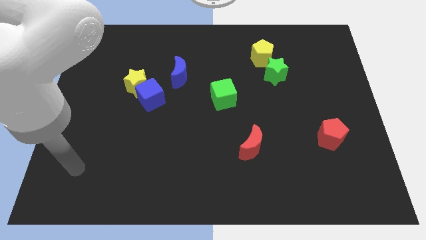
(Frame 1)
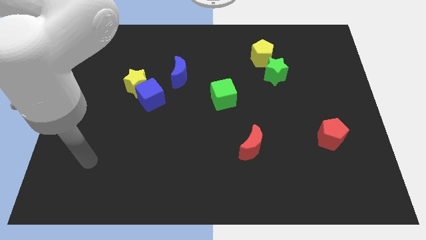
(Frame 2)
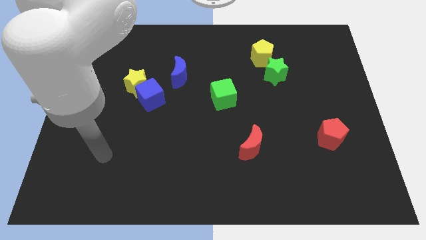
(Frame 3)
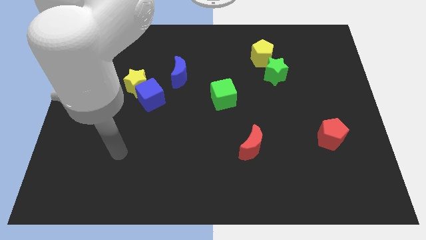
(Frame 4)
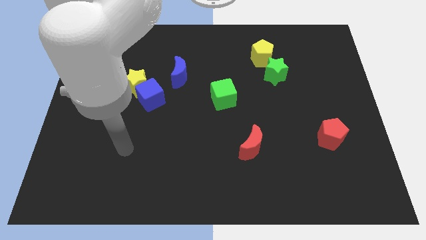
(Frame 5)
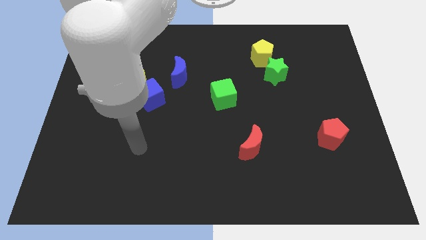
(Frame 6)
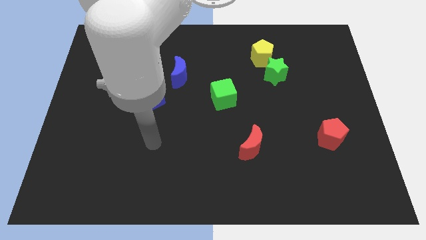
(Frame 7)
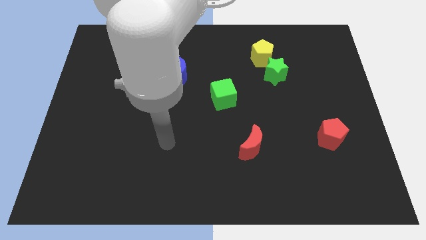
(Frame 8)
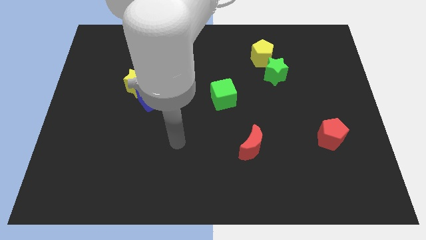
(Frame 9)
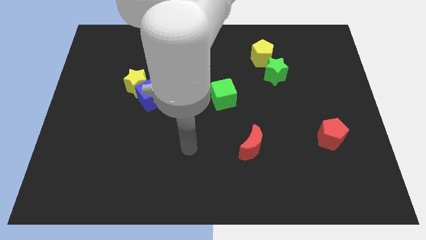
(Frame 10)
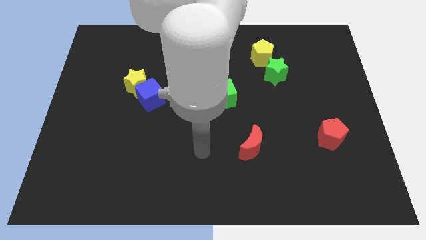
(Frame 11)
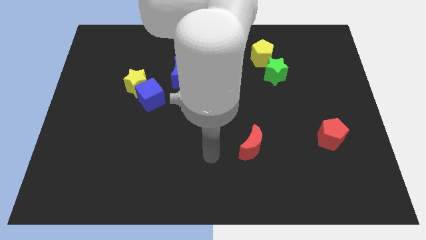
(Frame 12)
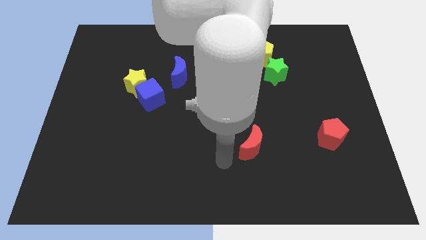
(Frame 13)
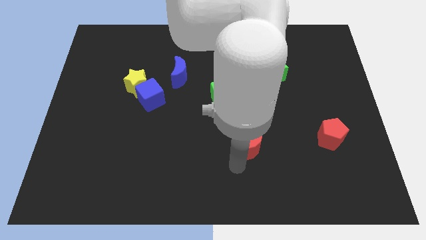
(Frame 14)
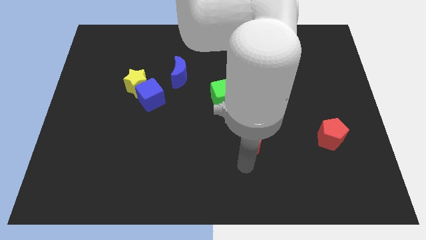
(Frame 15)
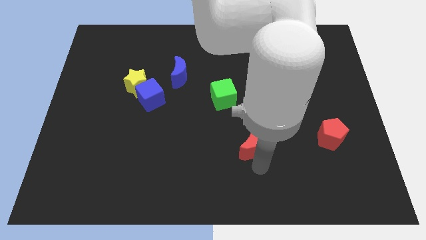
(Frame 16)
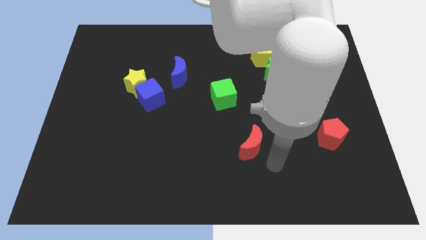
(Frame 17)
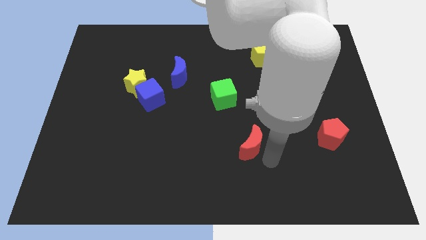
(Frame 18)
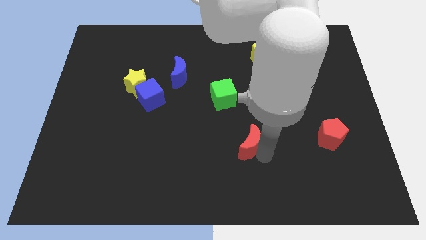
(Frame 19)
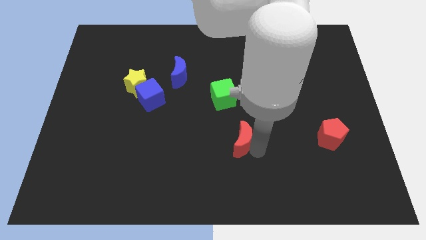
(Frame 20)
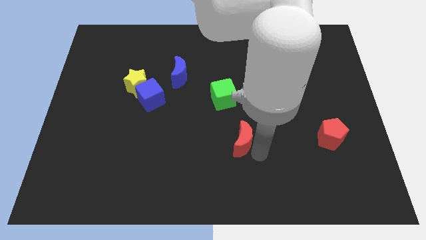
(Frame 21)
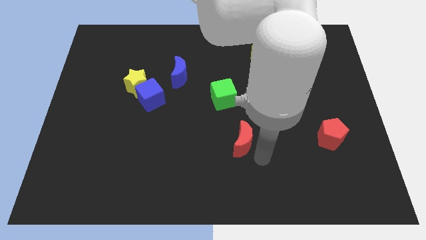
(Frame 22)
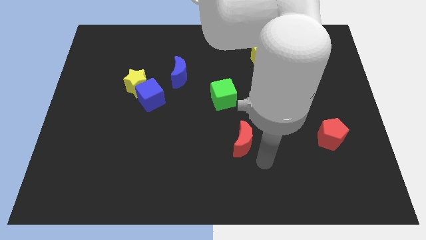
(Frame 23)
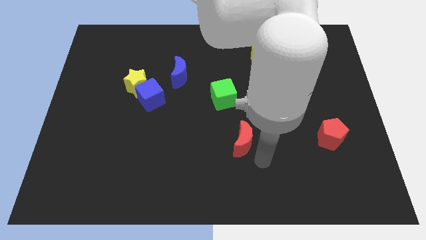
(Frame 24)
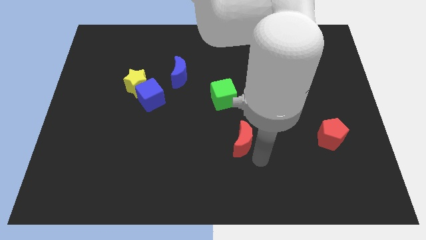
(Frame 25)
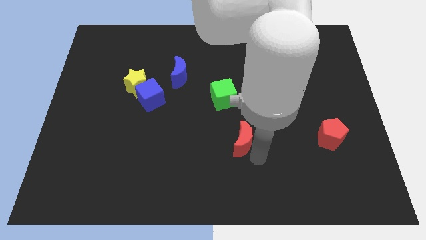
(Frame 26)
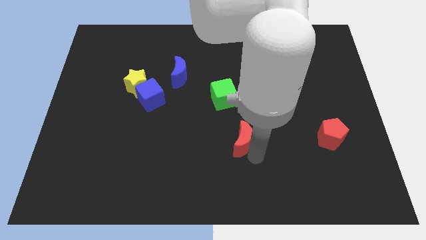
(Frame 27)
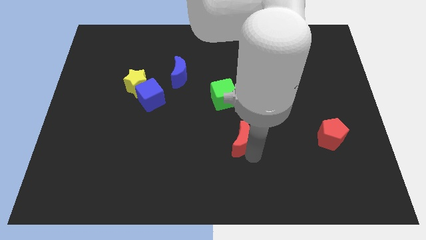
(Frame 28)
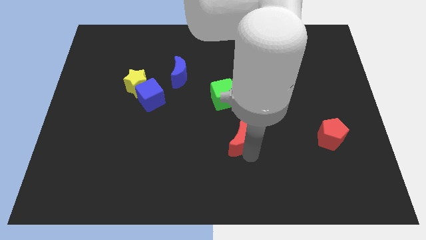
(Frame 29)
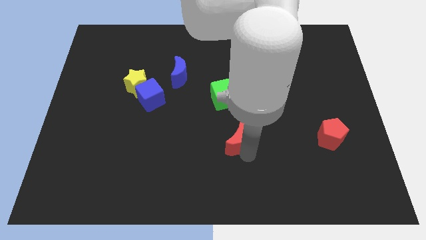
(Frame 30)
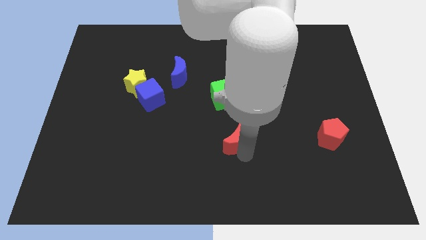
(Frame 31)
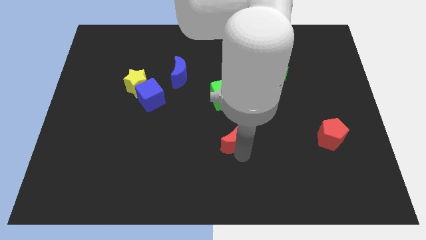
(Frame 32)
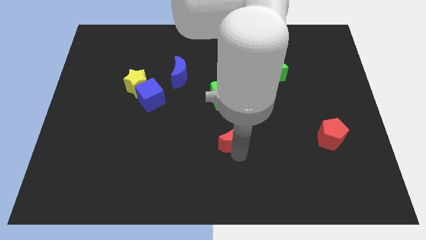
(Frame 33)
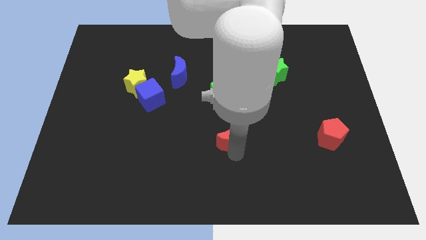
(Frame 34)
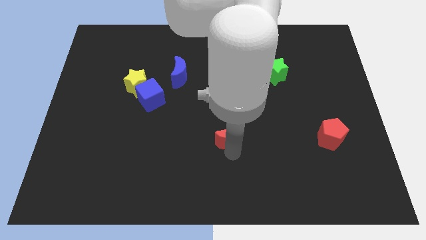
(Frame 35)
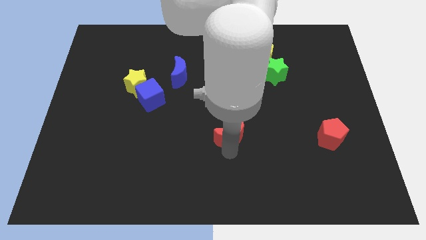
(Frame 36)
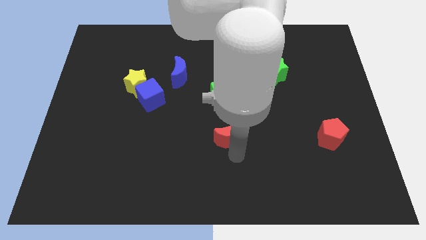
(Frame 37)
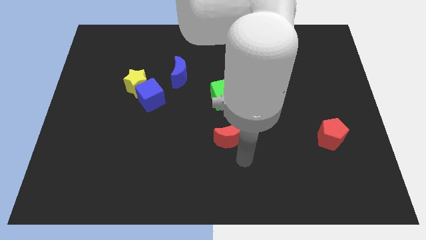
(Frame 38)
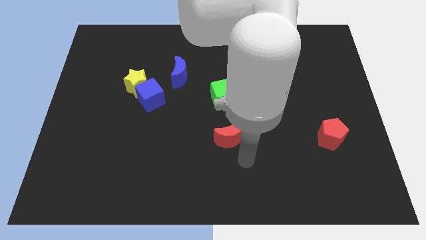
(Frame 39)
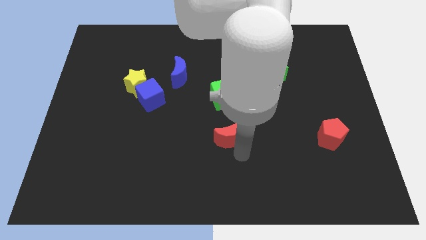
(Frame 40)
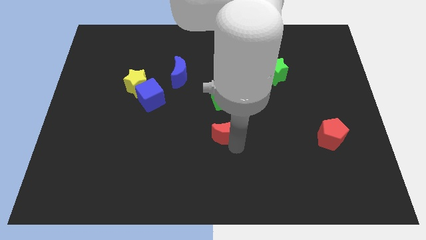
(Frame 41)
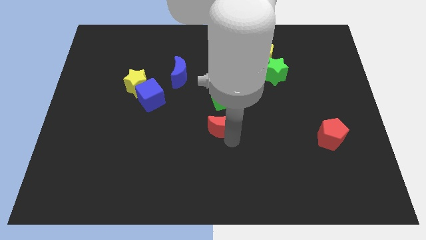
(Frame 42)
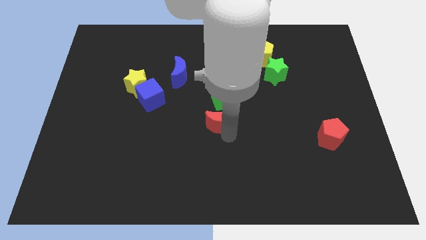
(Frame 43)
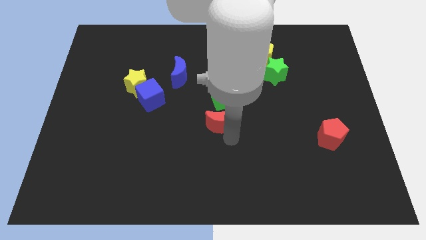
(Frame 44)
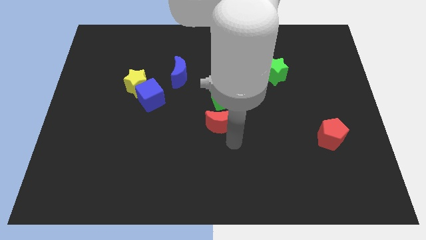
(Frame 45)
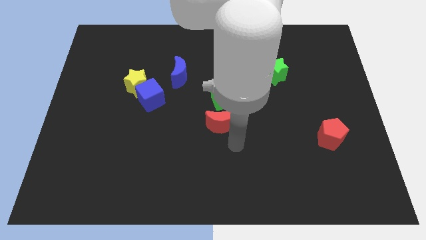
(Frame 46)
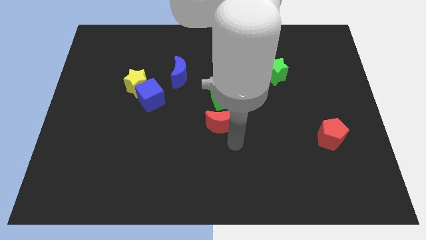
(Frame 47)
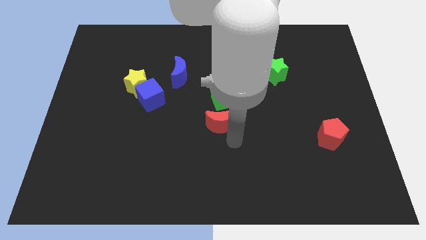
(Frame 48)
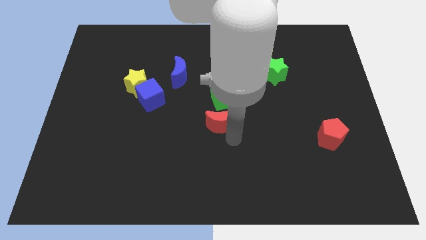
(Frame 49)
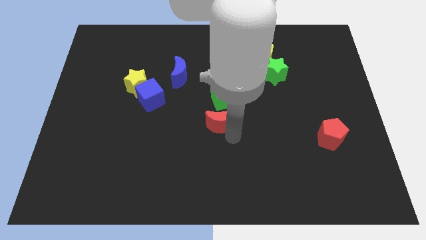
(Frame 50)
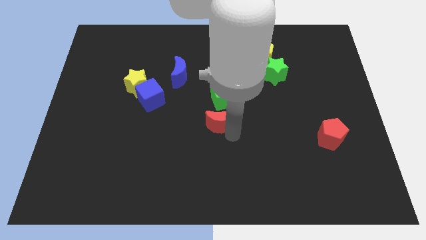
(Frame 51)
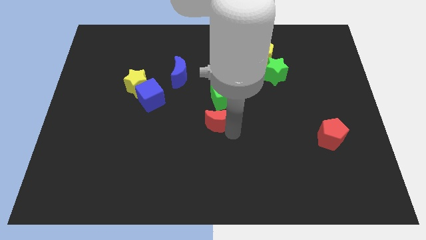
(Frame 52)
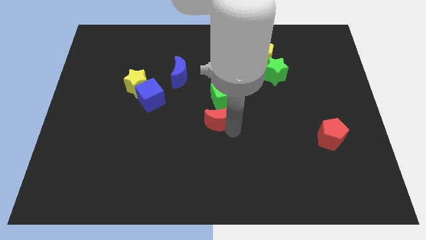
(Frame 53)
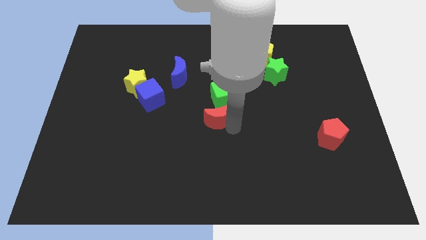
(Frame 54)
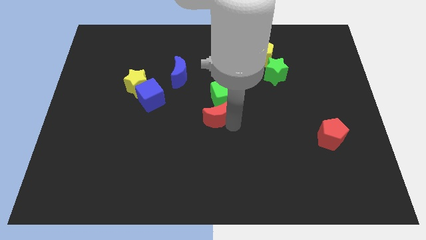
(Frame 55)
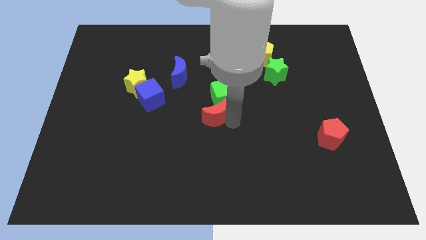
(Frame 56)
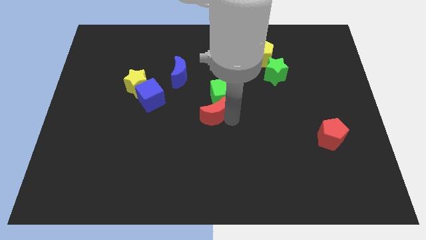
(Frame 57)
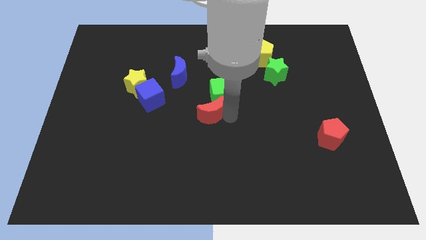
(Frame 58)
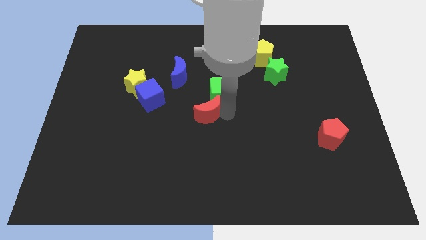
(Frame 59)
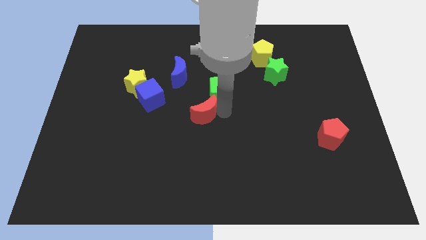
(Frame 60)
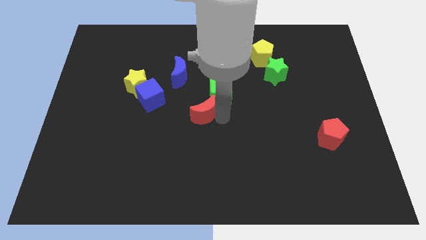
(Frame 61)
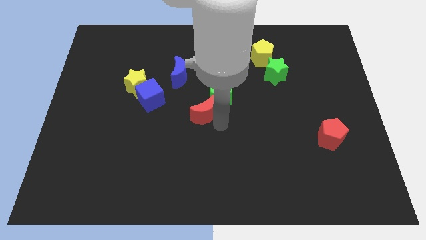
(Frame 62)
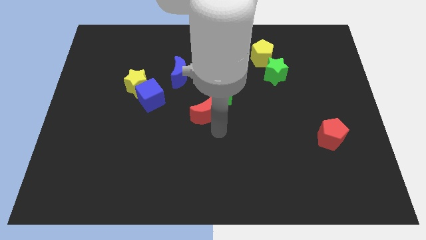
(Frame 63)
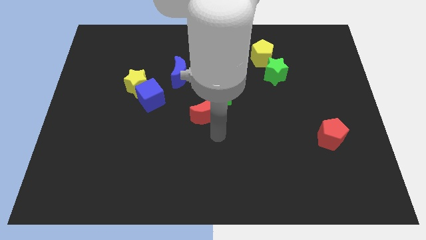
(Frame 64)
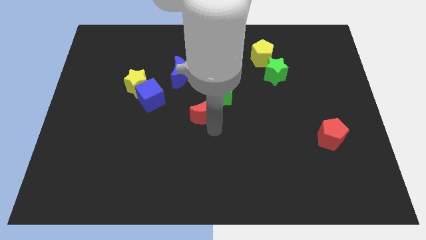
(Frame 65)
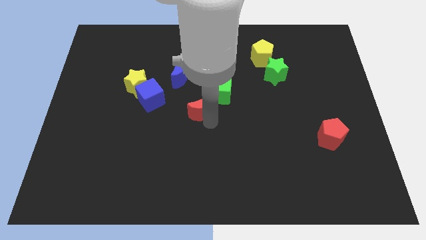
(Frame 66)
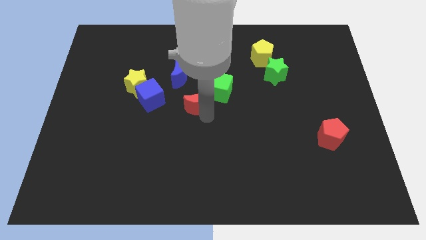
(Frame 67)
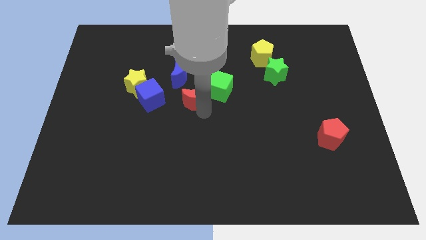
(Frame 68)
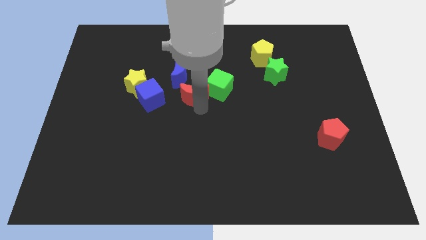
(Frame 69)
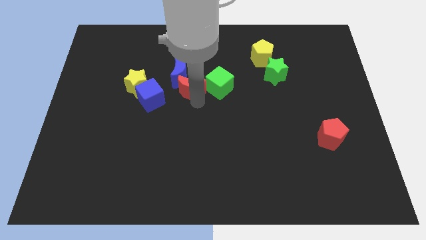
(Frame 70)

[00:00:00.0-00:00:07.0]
slide the red moon to the blue moon
